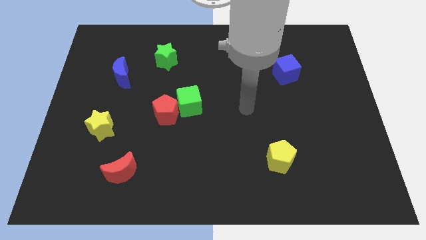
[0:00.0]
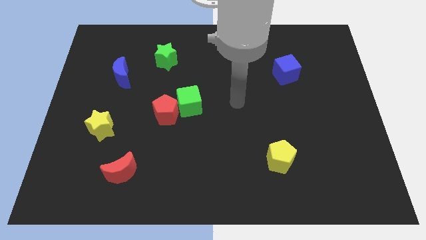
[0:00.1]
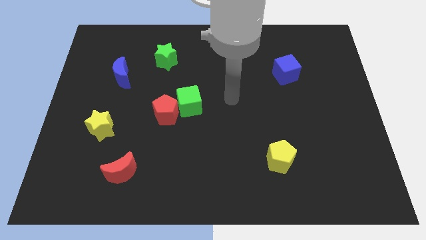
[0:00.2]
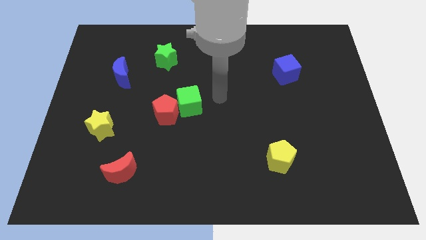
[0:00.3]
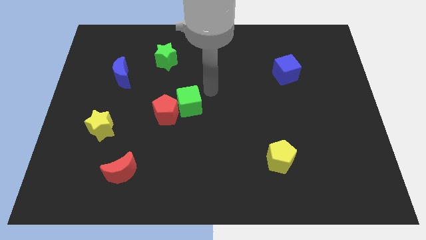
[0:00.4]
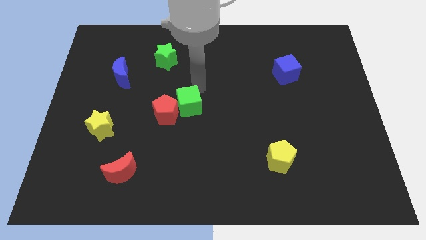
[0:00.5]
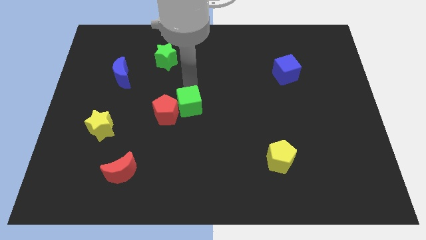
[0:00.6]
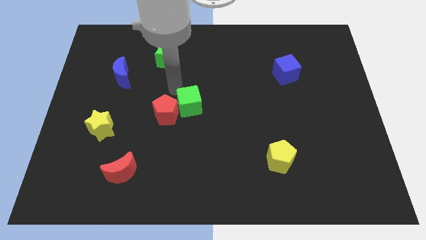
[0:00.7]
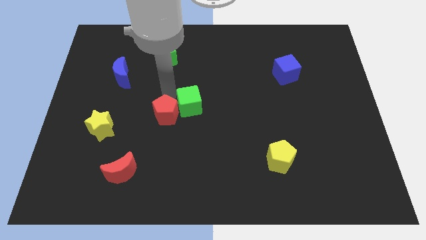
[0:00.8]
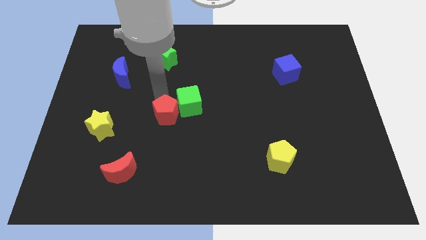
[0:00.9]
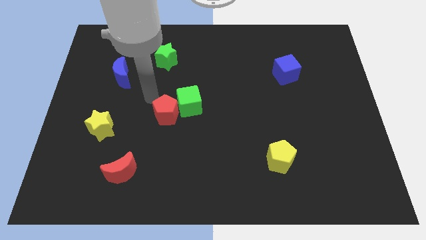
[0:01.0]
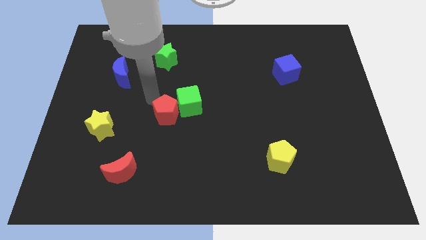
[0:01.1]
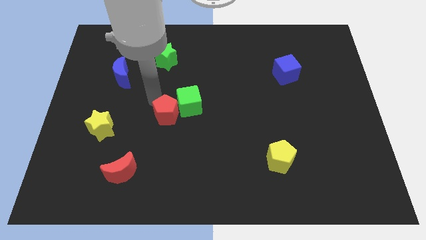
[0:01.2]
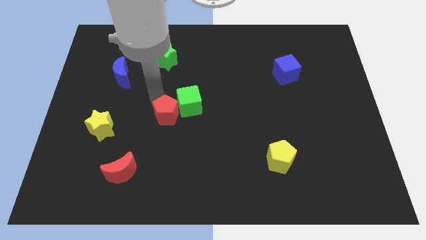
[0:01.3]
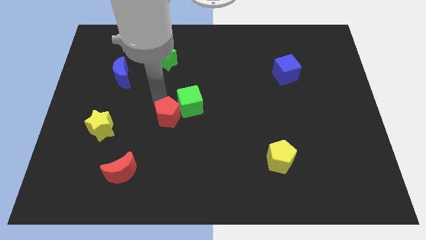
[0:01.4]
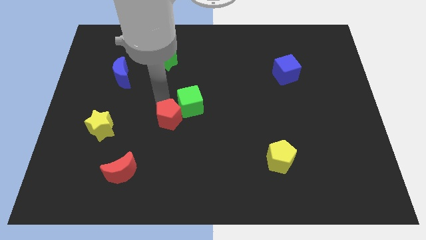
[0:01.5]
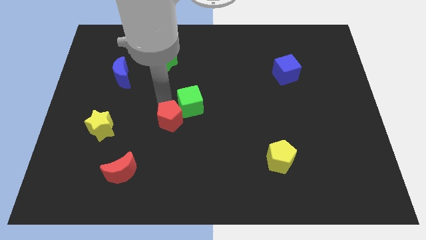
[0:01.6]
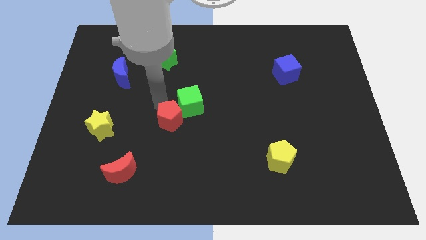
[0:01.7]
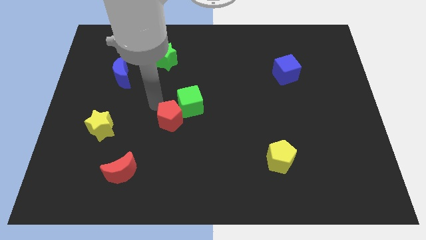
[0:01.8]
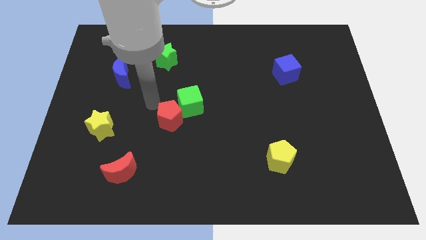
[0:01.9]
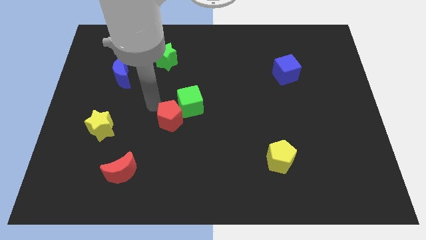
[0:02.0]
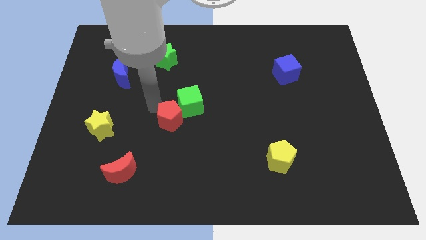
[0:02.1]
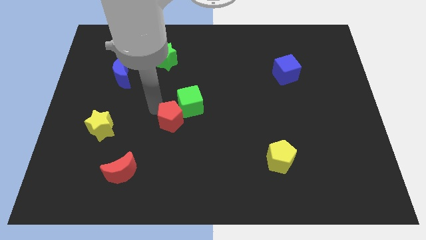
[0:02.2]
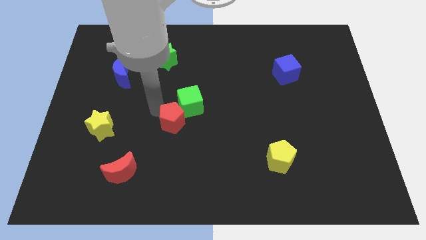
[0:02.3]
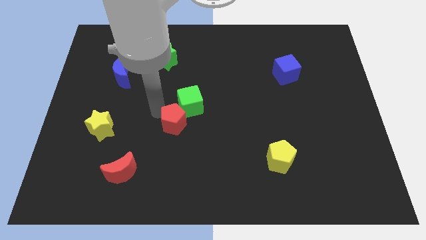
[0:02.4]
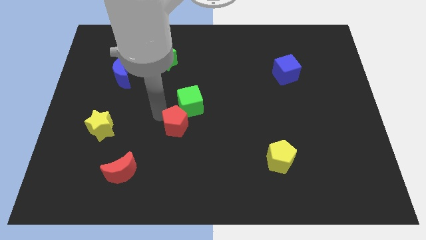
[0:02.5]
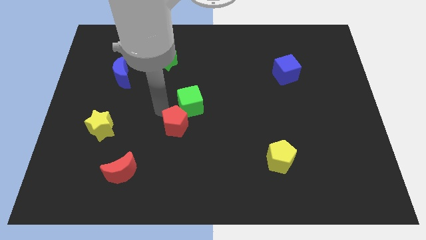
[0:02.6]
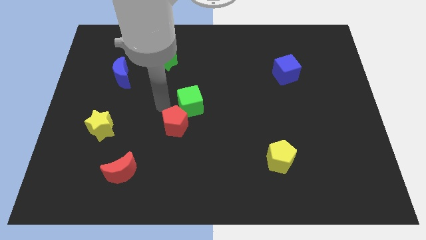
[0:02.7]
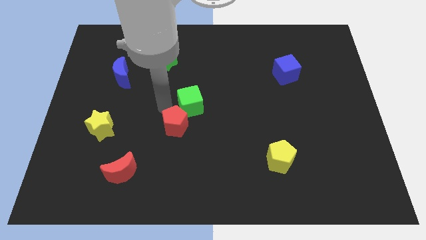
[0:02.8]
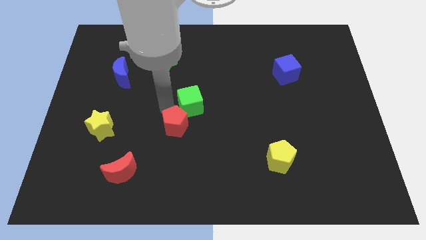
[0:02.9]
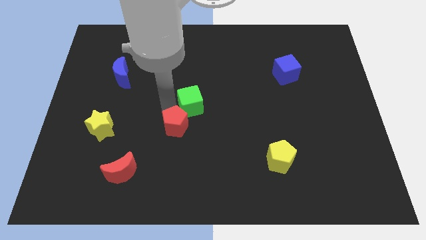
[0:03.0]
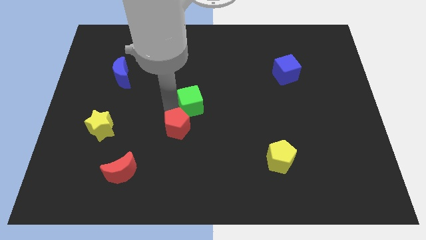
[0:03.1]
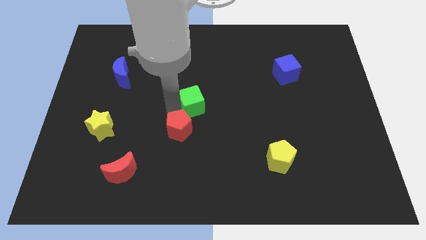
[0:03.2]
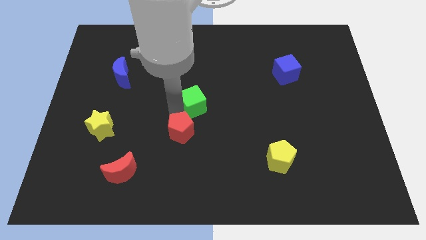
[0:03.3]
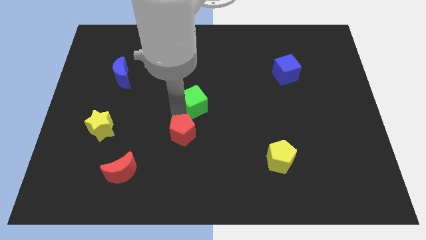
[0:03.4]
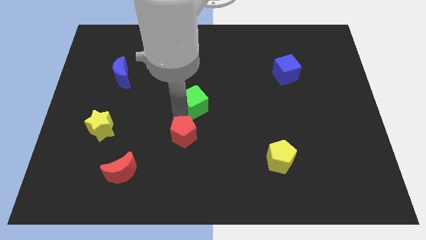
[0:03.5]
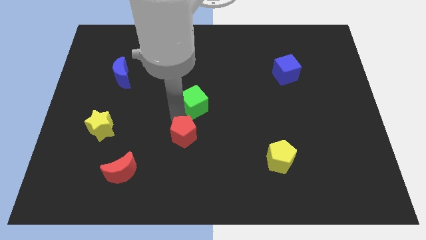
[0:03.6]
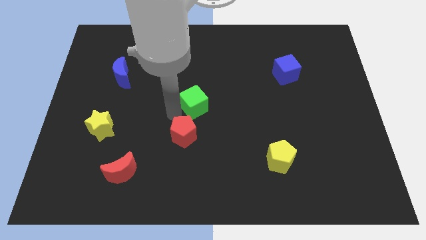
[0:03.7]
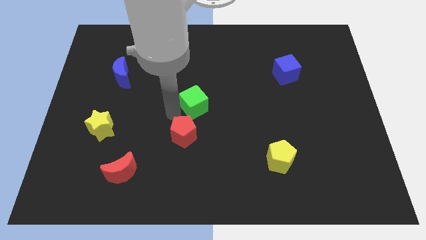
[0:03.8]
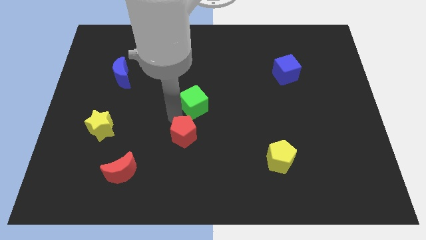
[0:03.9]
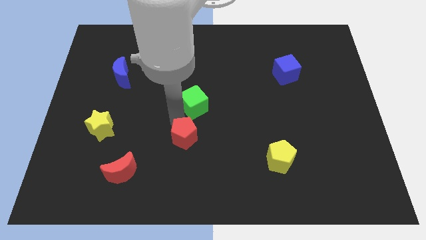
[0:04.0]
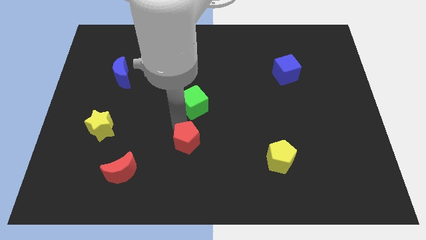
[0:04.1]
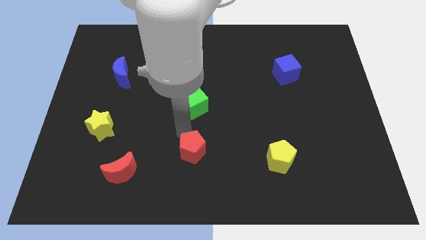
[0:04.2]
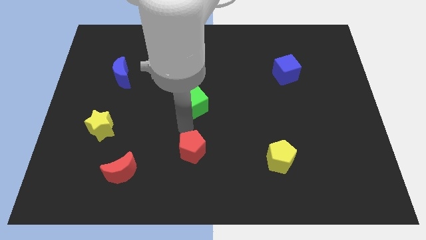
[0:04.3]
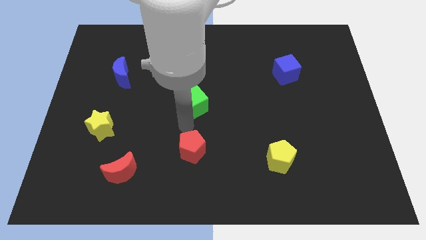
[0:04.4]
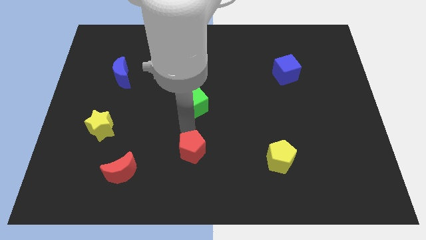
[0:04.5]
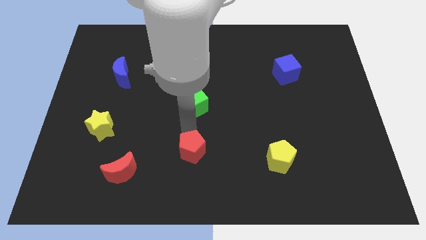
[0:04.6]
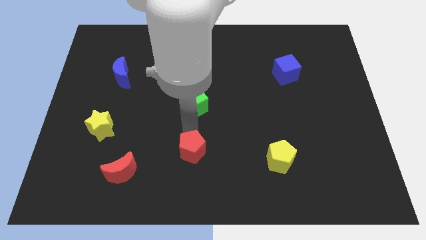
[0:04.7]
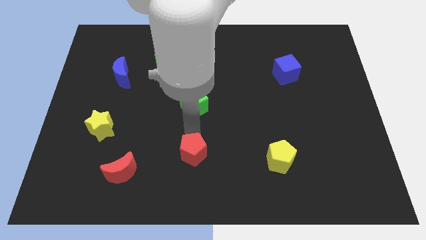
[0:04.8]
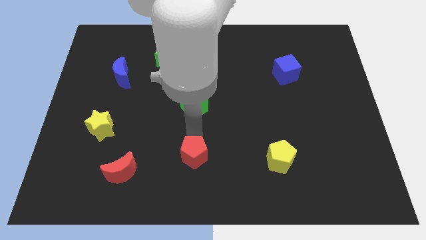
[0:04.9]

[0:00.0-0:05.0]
put the red pentagon to the bottom side

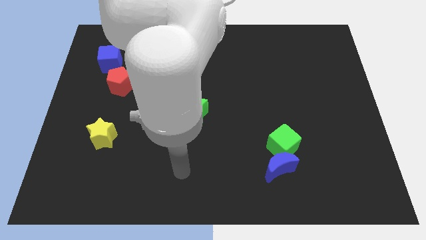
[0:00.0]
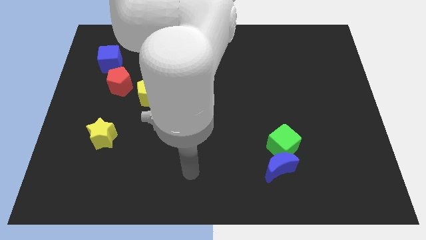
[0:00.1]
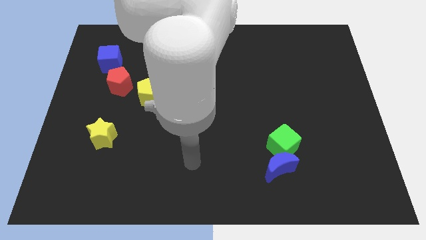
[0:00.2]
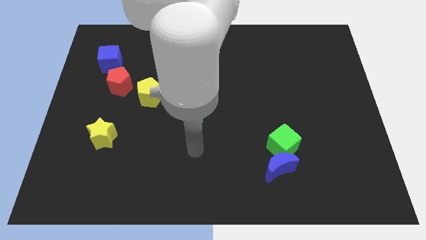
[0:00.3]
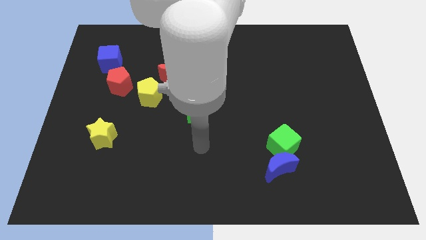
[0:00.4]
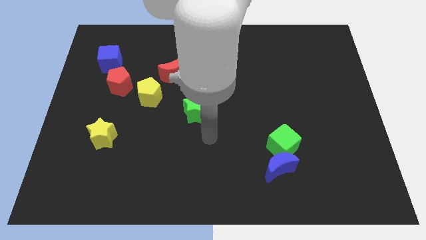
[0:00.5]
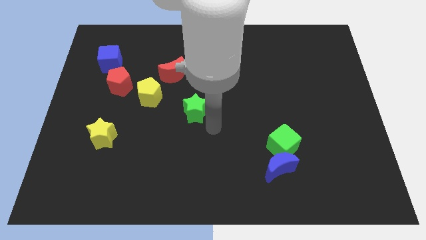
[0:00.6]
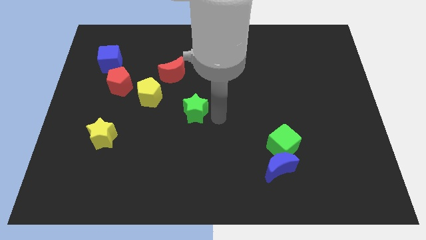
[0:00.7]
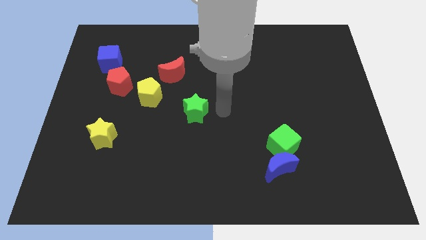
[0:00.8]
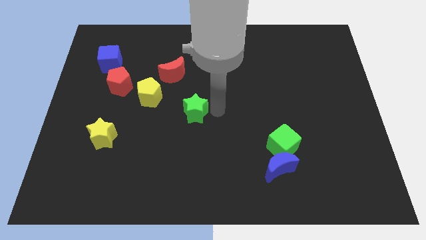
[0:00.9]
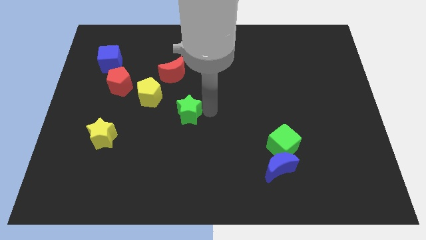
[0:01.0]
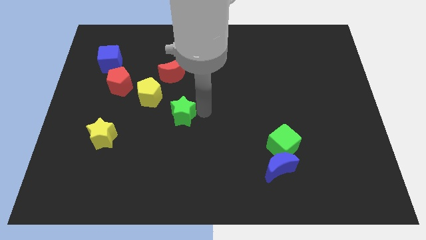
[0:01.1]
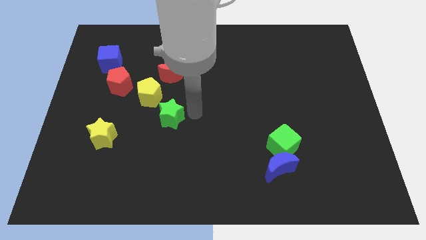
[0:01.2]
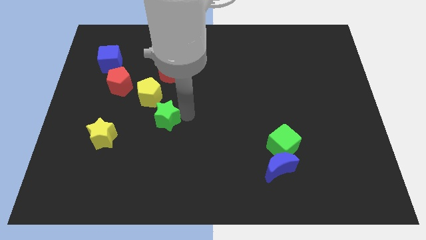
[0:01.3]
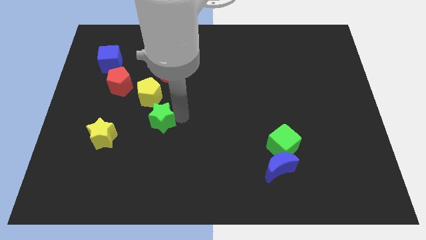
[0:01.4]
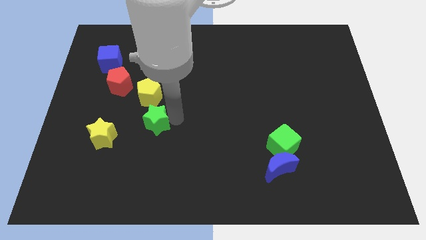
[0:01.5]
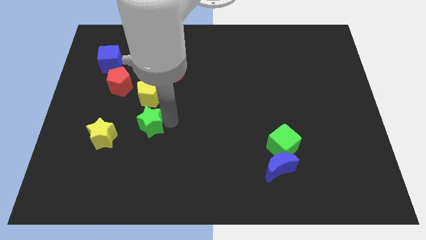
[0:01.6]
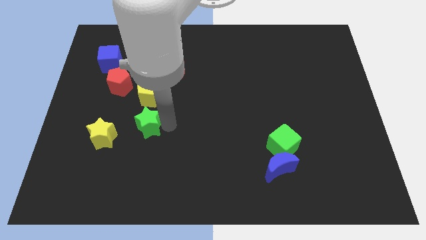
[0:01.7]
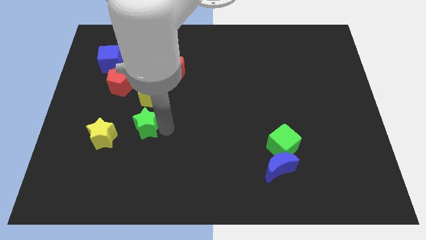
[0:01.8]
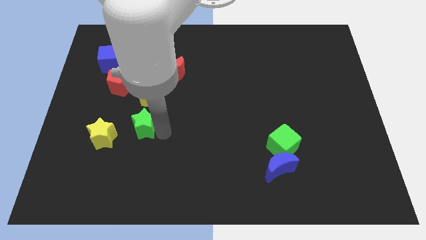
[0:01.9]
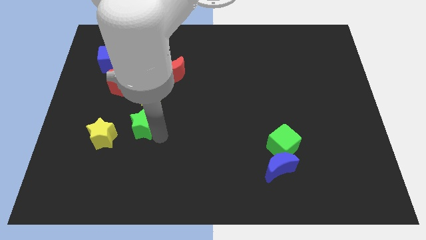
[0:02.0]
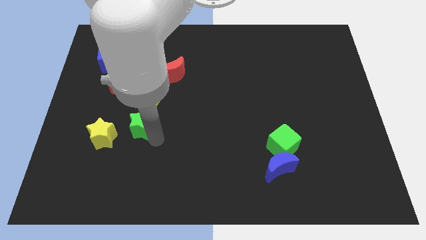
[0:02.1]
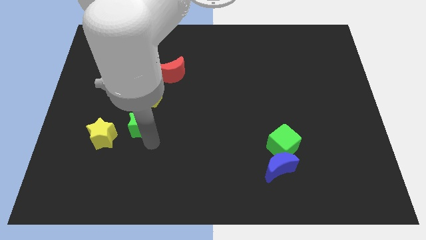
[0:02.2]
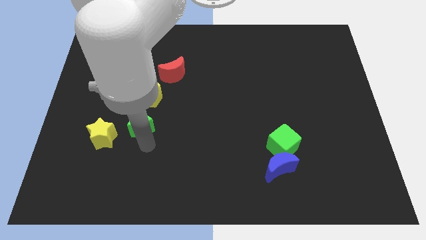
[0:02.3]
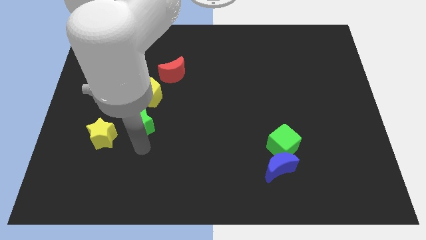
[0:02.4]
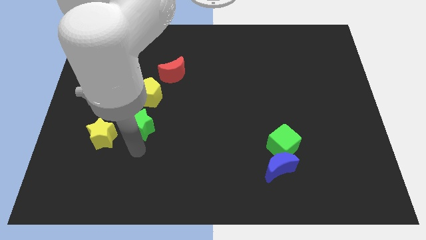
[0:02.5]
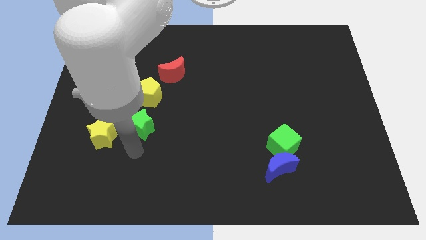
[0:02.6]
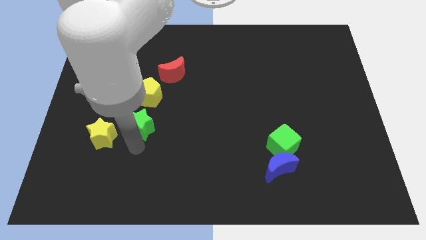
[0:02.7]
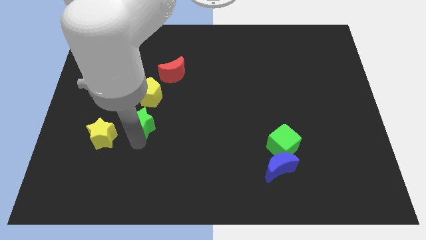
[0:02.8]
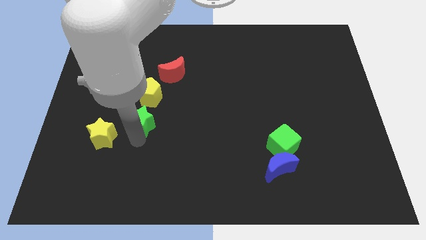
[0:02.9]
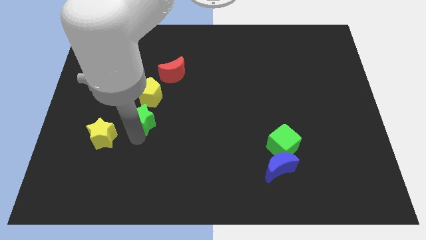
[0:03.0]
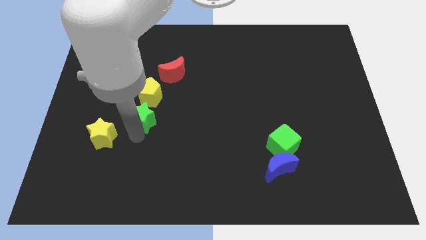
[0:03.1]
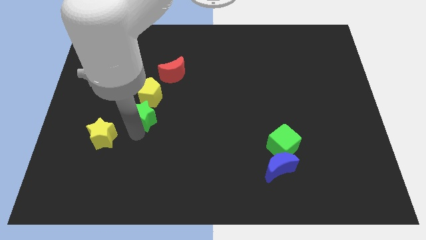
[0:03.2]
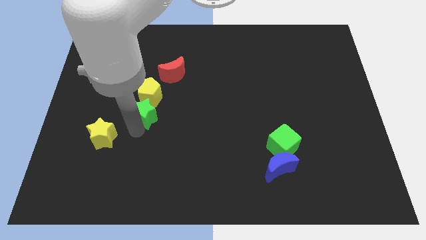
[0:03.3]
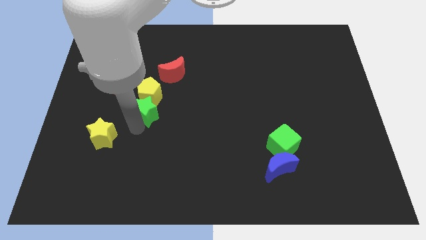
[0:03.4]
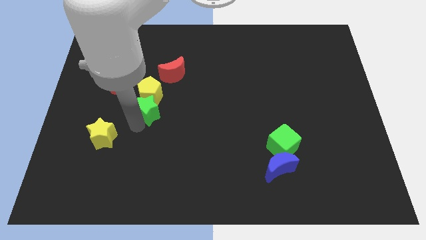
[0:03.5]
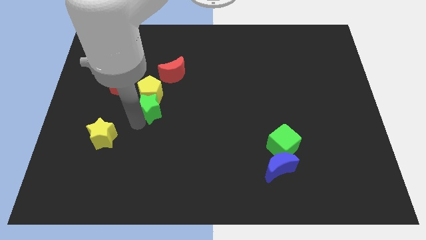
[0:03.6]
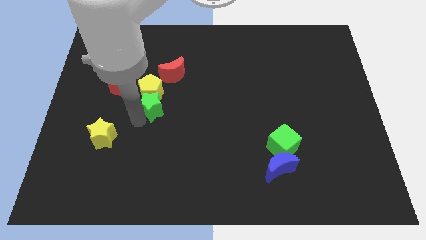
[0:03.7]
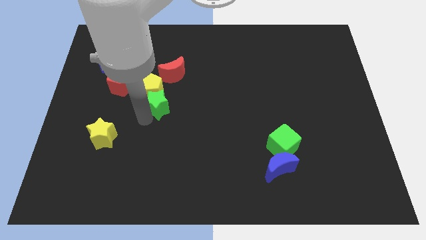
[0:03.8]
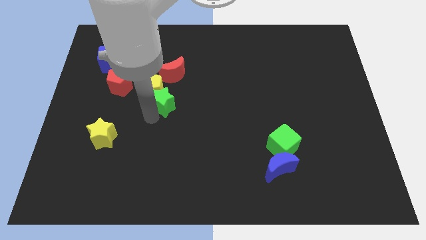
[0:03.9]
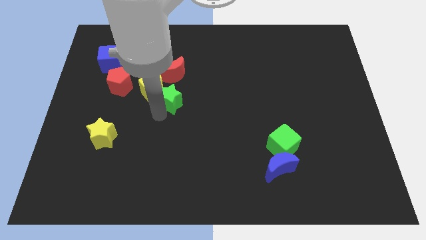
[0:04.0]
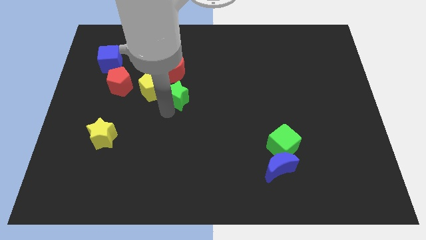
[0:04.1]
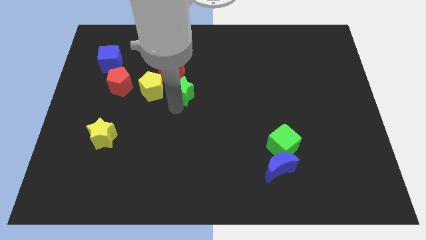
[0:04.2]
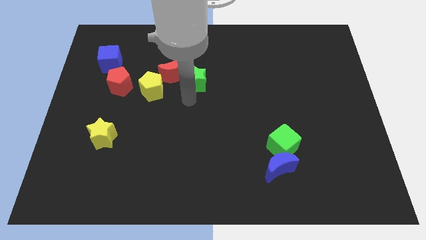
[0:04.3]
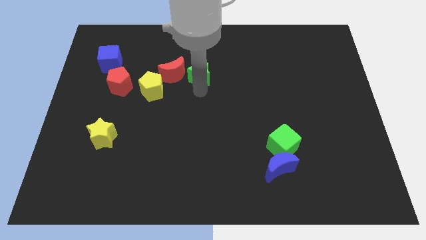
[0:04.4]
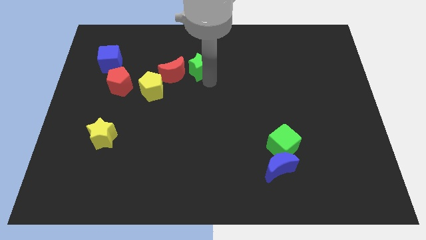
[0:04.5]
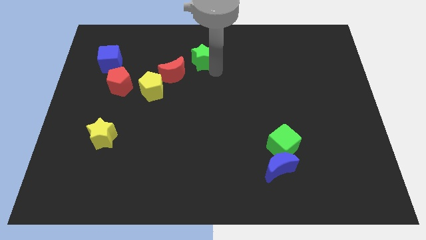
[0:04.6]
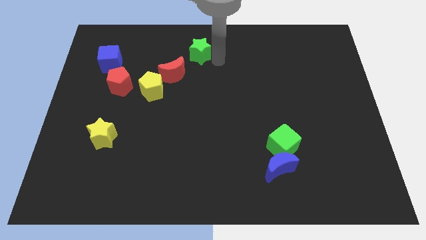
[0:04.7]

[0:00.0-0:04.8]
push the green star to the top side
